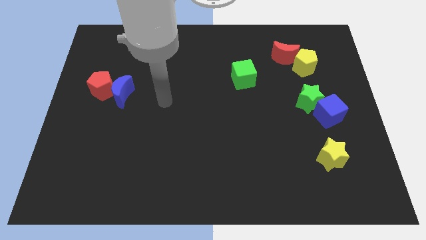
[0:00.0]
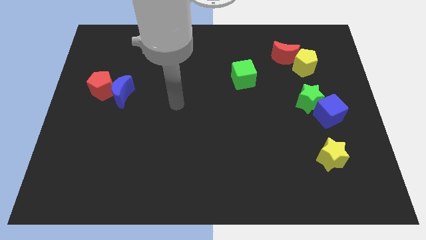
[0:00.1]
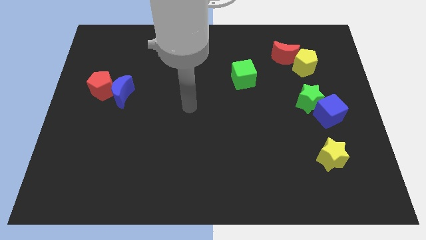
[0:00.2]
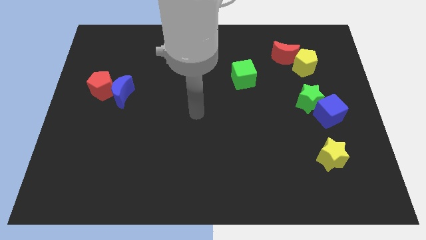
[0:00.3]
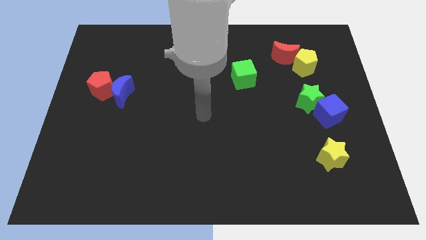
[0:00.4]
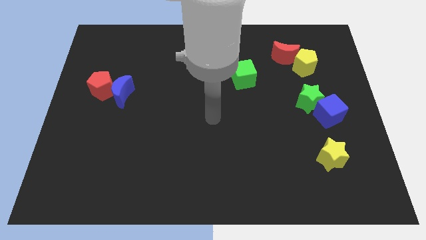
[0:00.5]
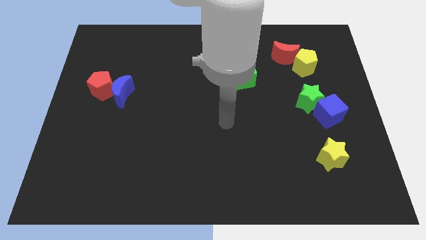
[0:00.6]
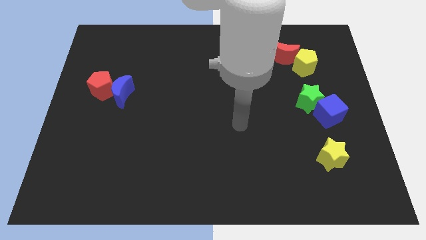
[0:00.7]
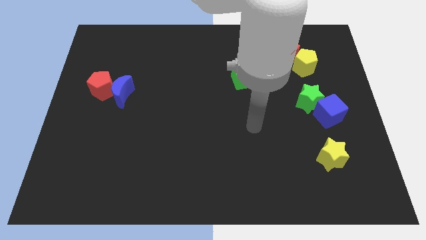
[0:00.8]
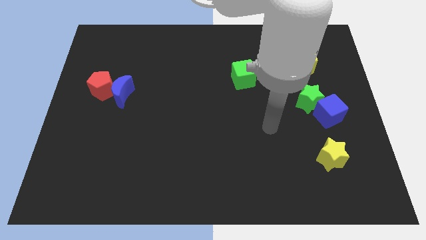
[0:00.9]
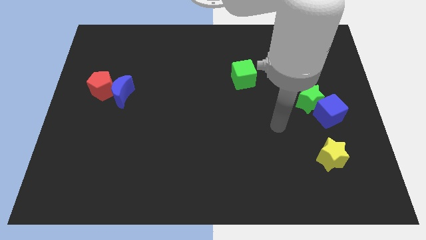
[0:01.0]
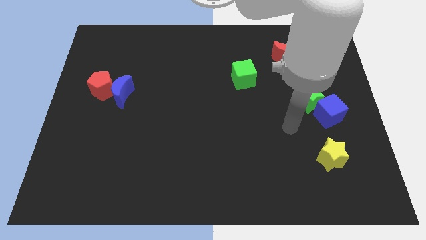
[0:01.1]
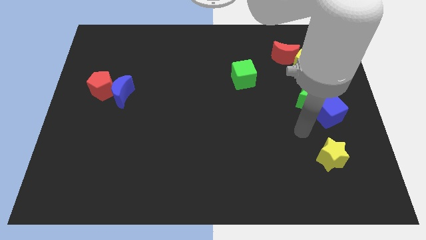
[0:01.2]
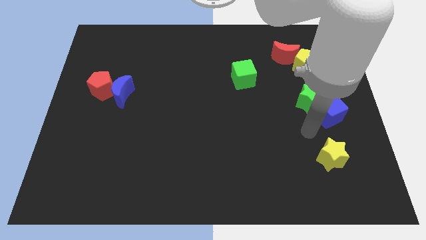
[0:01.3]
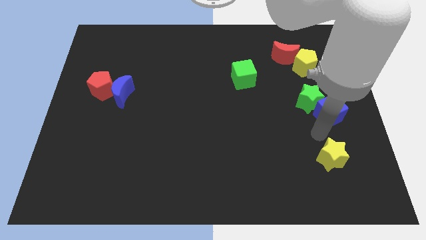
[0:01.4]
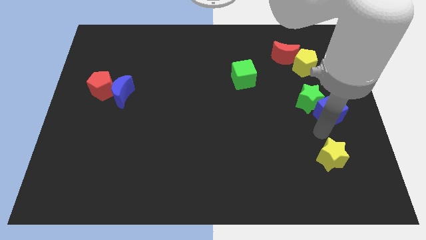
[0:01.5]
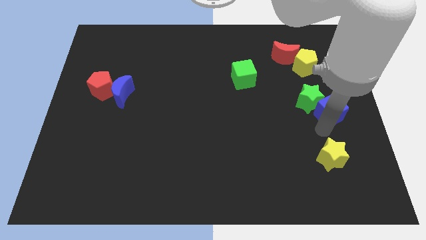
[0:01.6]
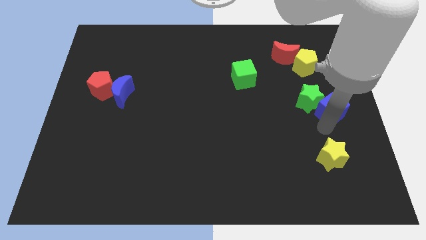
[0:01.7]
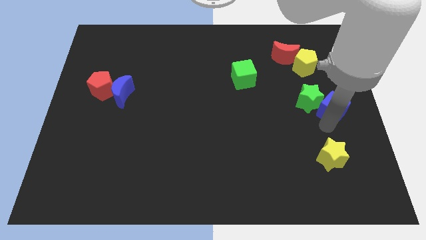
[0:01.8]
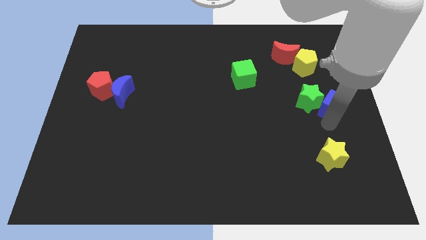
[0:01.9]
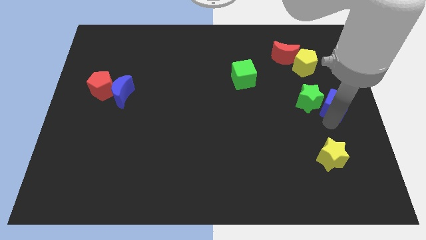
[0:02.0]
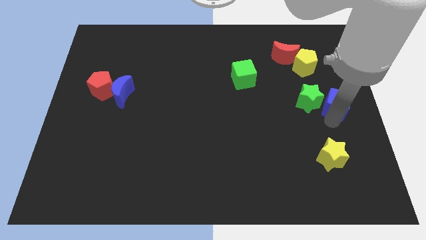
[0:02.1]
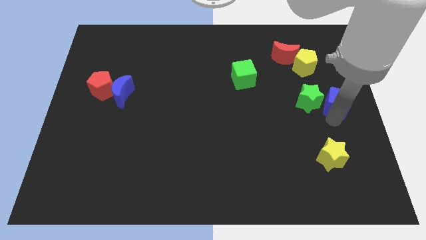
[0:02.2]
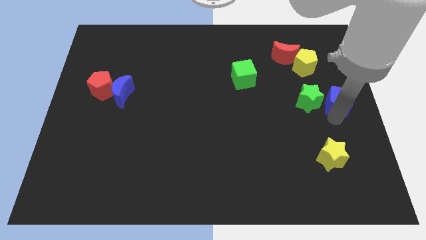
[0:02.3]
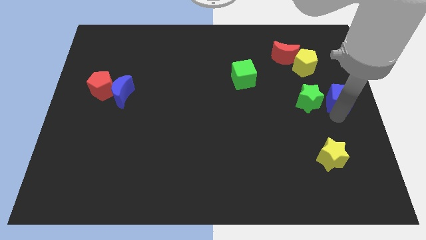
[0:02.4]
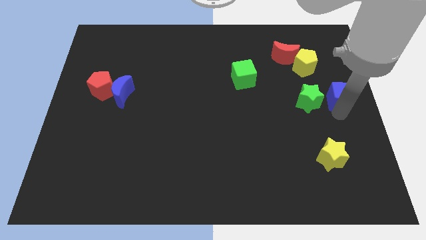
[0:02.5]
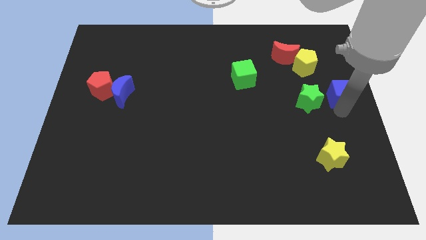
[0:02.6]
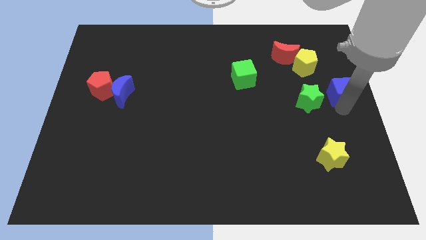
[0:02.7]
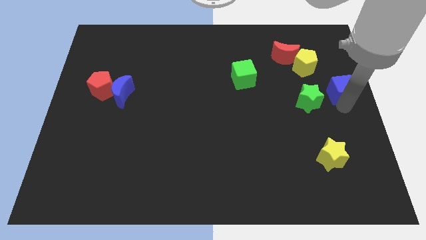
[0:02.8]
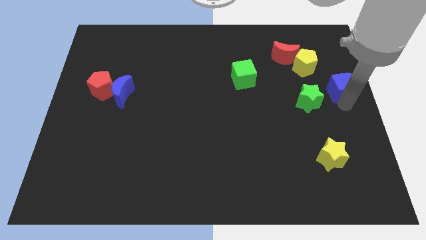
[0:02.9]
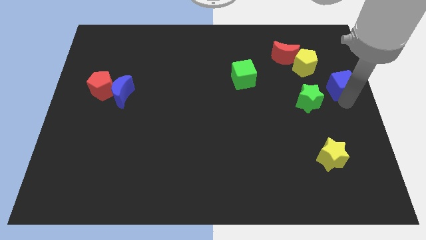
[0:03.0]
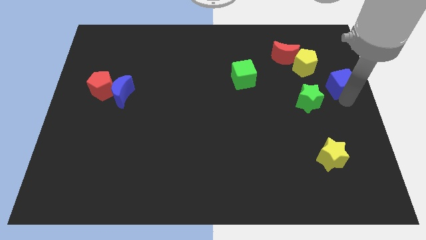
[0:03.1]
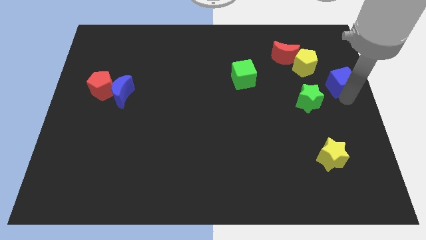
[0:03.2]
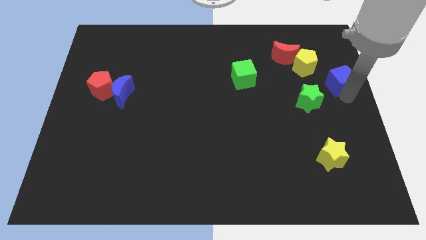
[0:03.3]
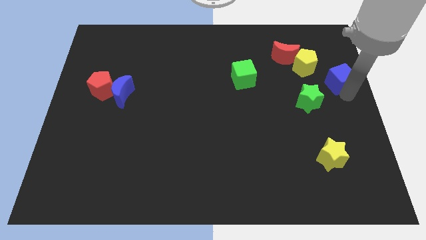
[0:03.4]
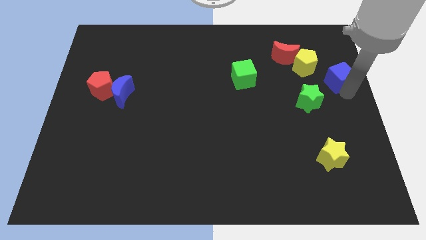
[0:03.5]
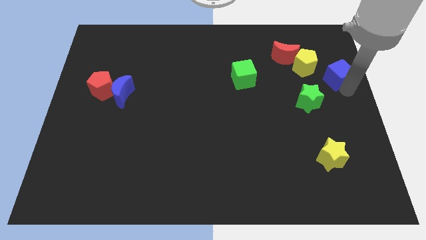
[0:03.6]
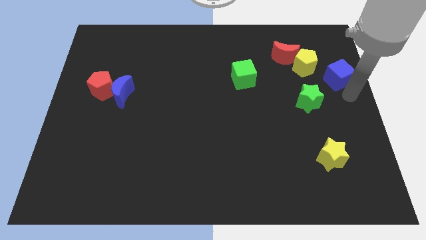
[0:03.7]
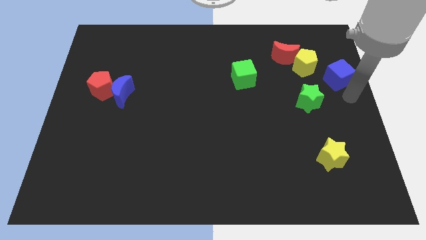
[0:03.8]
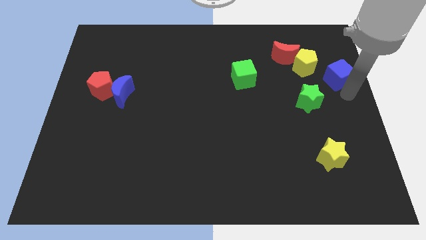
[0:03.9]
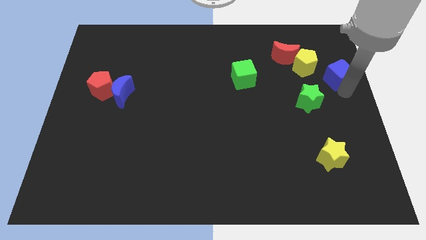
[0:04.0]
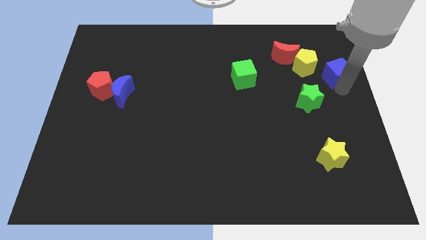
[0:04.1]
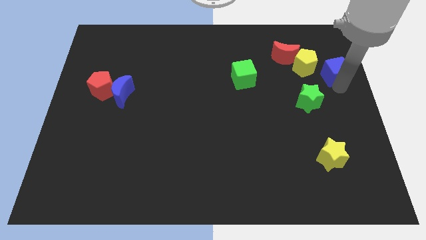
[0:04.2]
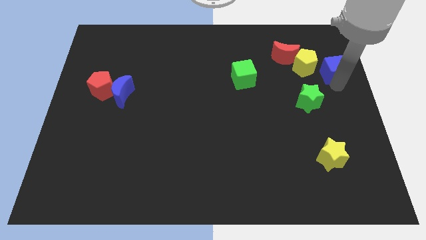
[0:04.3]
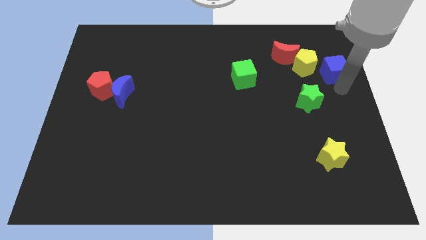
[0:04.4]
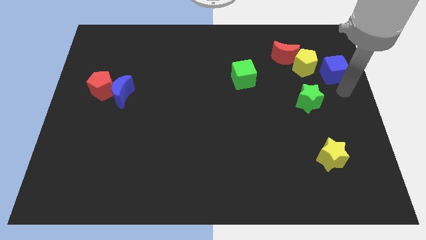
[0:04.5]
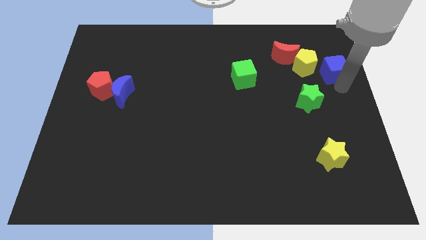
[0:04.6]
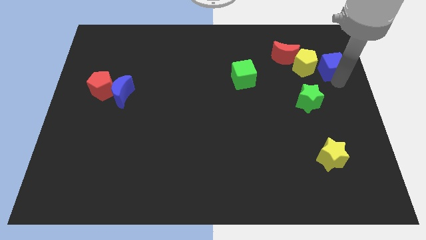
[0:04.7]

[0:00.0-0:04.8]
put the blue cube to the right side of the red moon

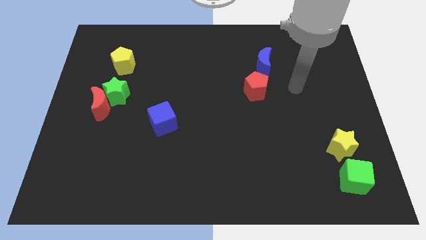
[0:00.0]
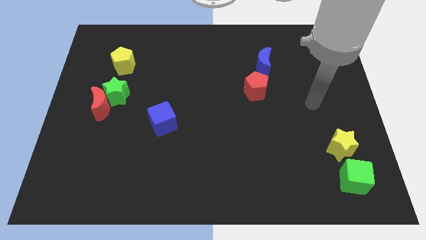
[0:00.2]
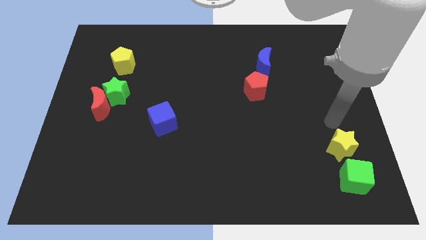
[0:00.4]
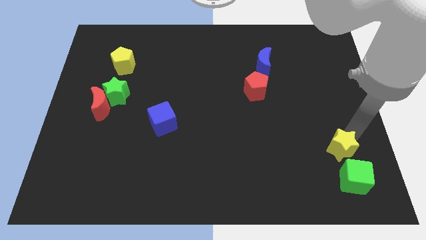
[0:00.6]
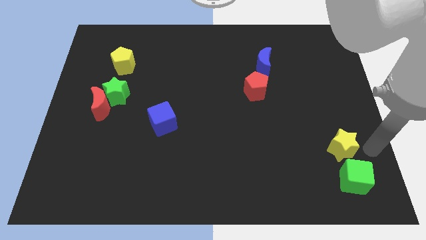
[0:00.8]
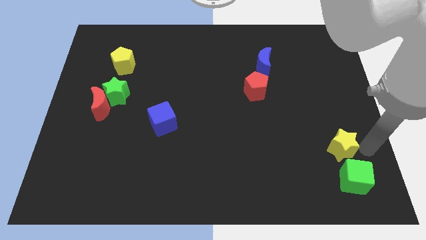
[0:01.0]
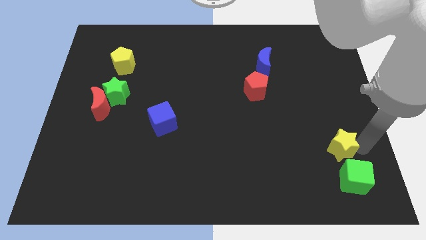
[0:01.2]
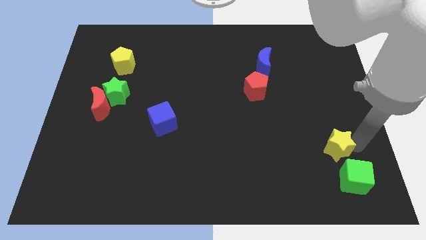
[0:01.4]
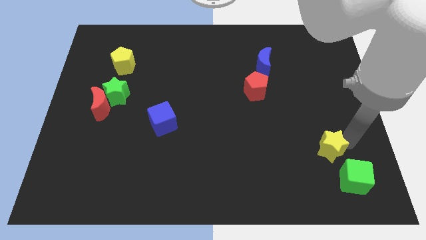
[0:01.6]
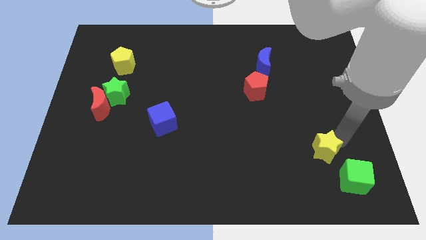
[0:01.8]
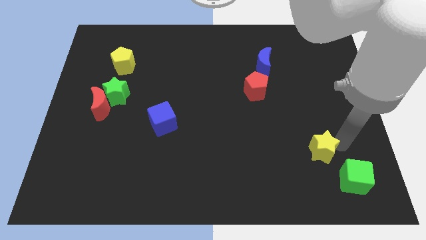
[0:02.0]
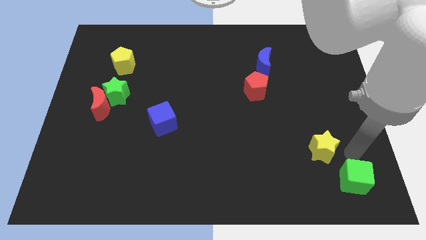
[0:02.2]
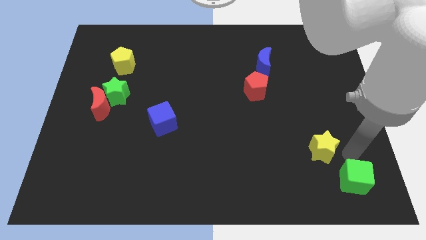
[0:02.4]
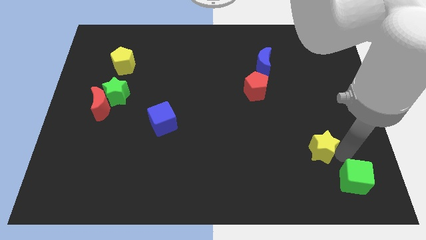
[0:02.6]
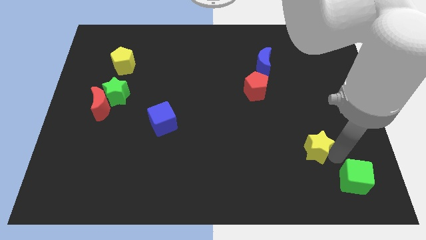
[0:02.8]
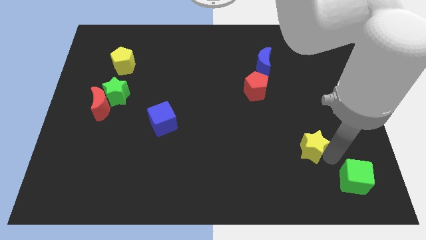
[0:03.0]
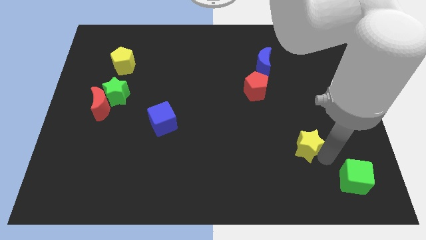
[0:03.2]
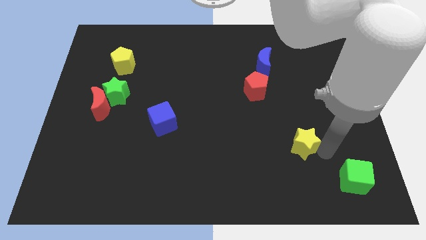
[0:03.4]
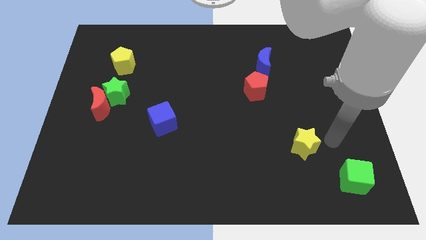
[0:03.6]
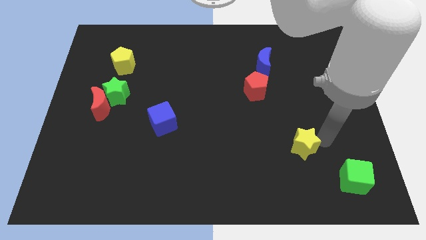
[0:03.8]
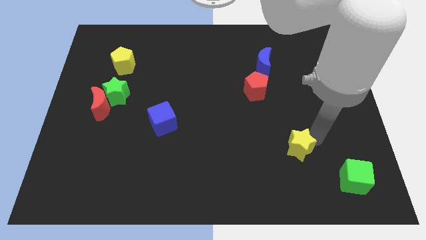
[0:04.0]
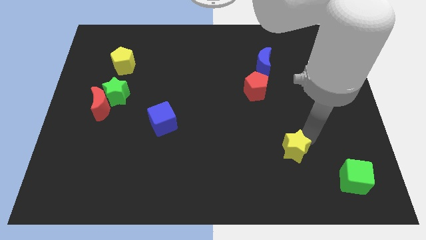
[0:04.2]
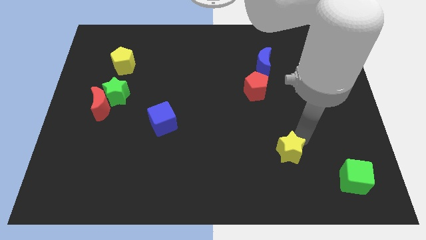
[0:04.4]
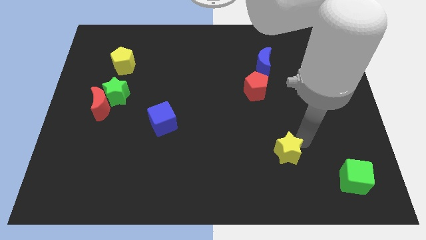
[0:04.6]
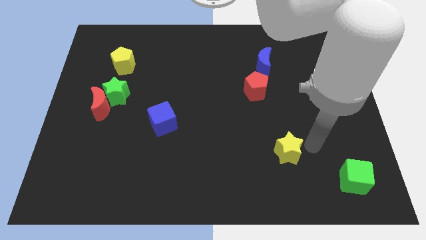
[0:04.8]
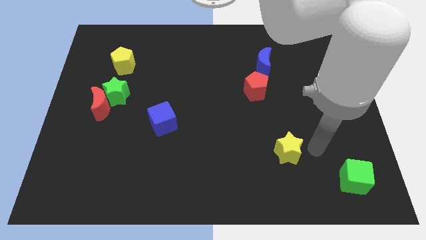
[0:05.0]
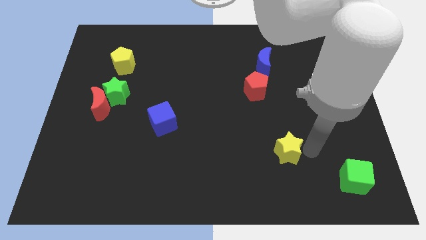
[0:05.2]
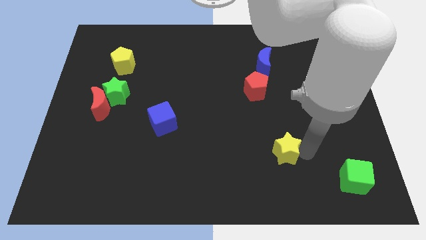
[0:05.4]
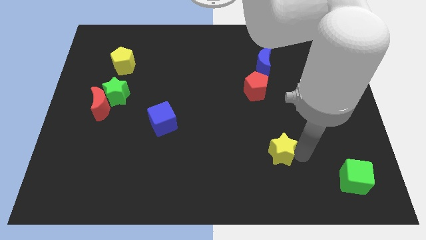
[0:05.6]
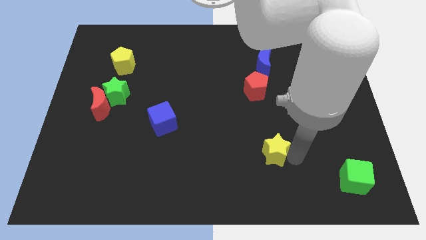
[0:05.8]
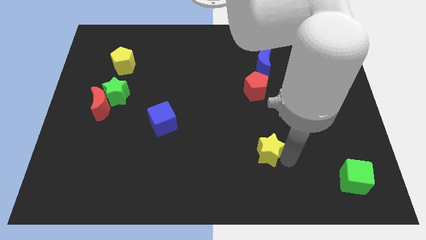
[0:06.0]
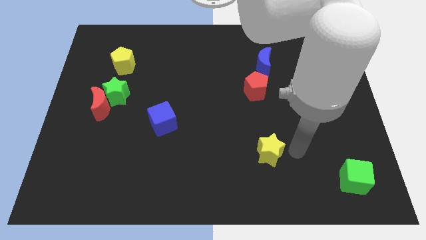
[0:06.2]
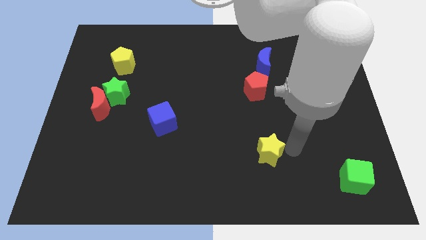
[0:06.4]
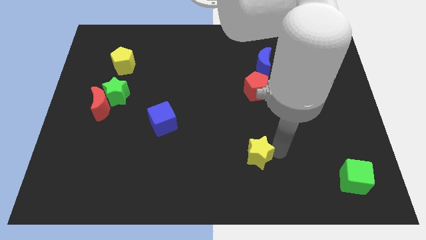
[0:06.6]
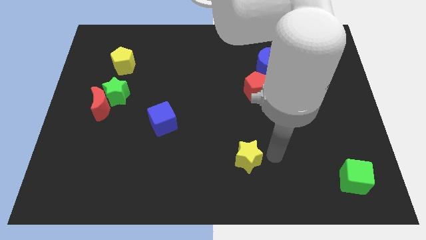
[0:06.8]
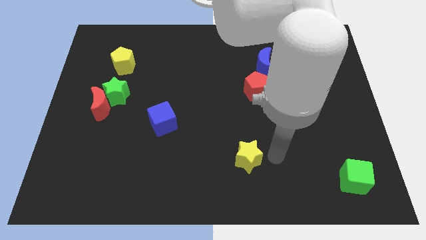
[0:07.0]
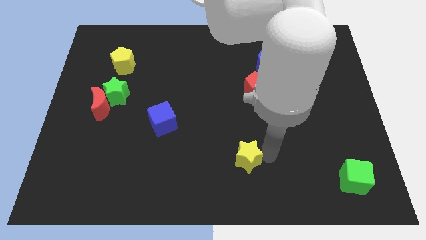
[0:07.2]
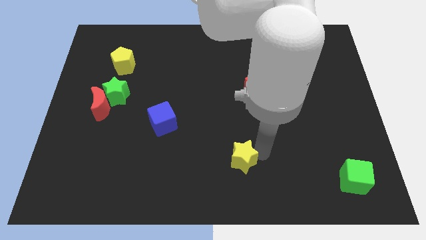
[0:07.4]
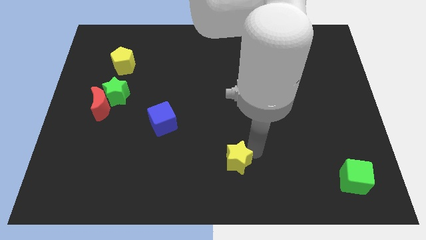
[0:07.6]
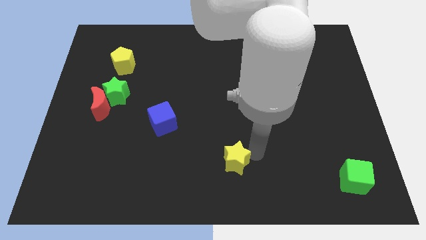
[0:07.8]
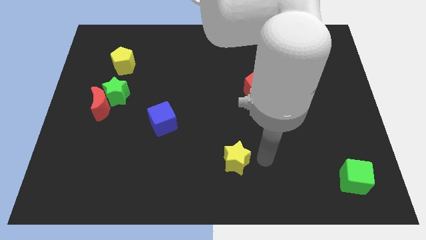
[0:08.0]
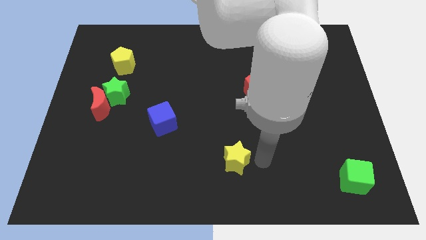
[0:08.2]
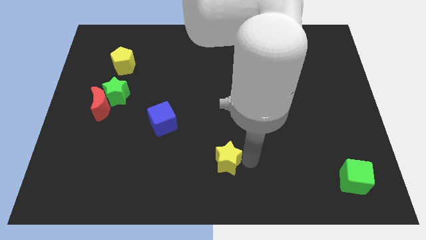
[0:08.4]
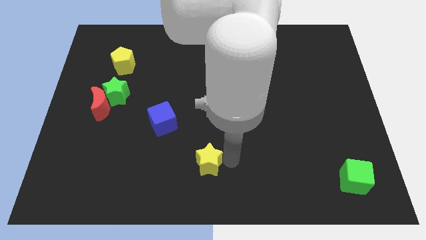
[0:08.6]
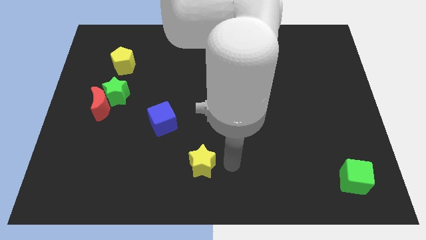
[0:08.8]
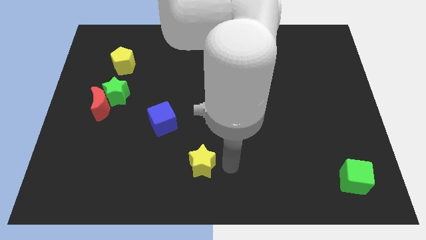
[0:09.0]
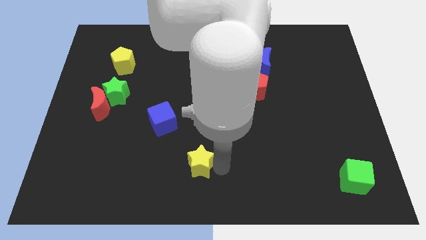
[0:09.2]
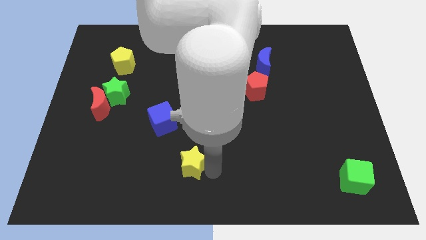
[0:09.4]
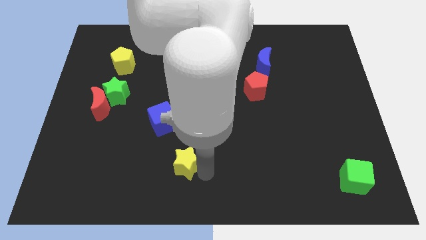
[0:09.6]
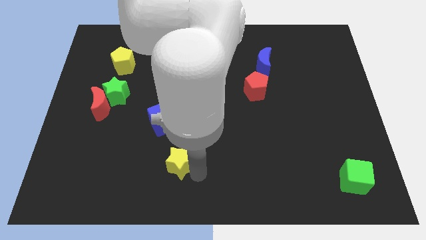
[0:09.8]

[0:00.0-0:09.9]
put the yellow star to the bottom side of the blue cube
